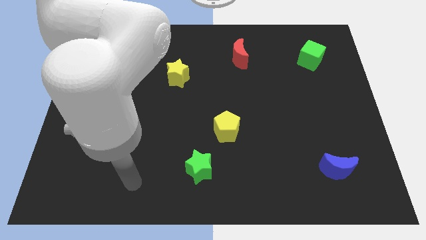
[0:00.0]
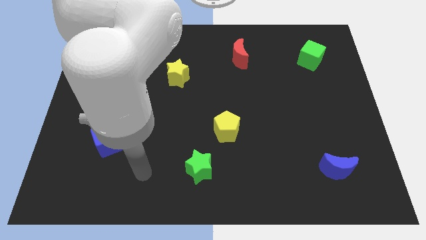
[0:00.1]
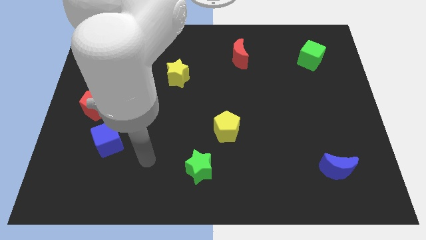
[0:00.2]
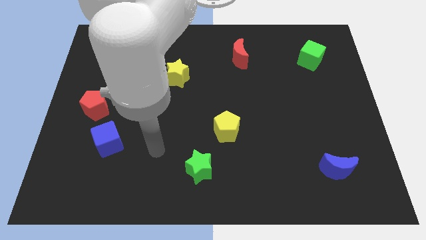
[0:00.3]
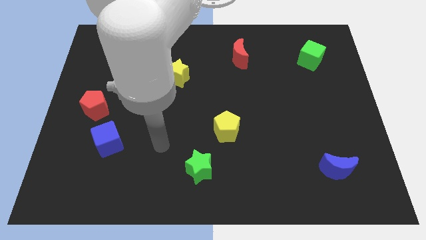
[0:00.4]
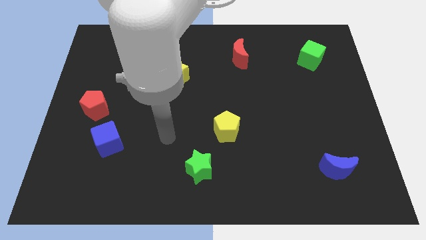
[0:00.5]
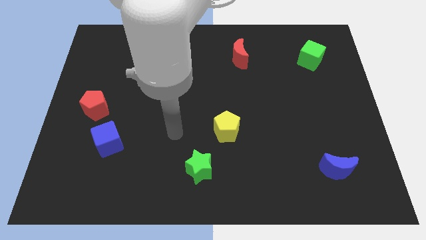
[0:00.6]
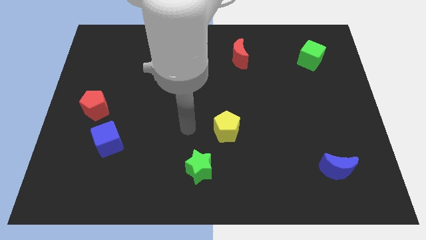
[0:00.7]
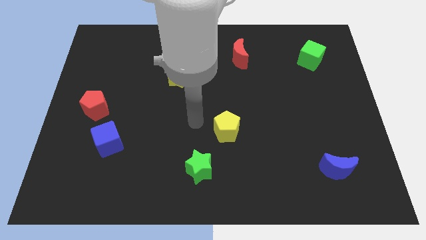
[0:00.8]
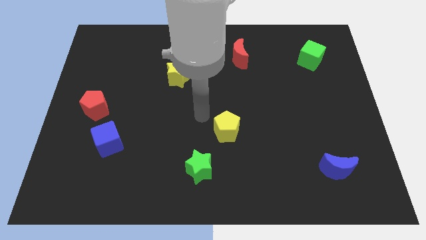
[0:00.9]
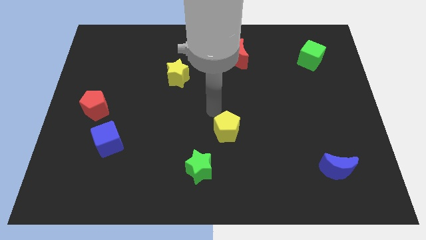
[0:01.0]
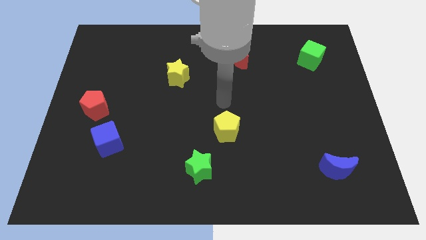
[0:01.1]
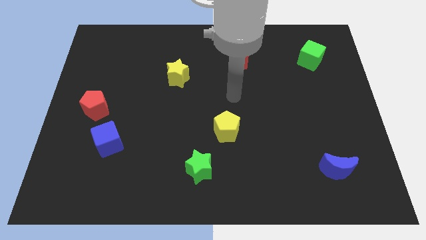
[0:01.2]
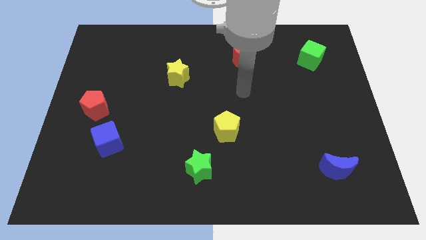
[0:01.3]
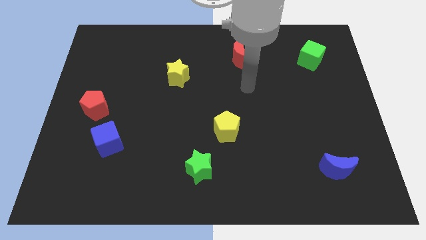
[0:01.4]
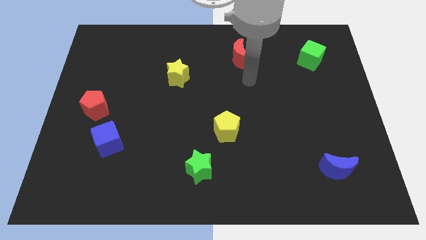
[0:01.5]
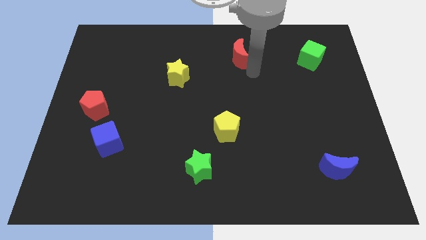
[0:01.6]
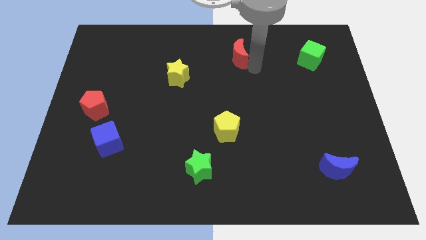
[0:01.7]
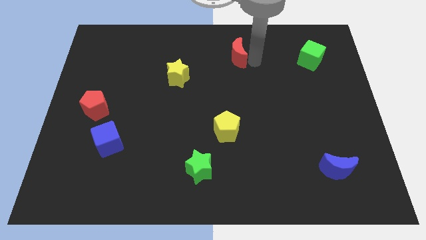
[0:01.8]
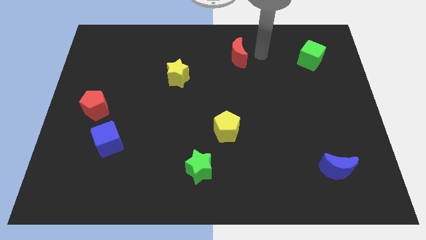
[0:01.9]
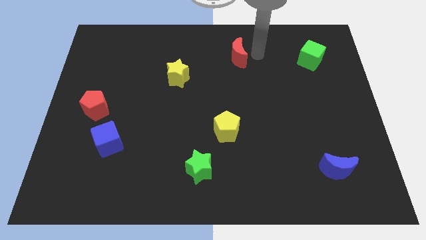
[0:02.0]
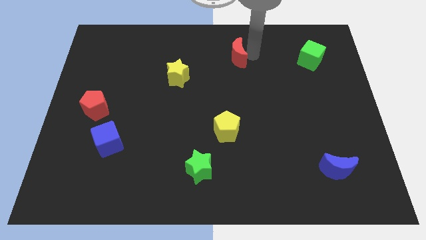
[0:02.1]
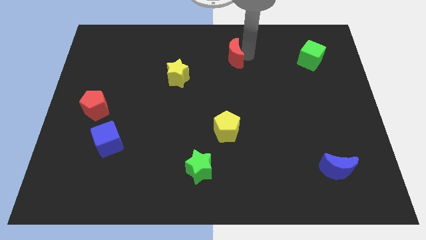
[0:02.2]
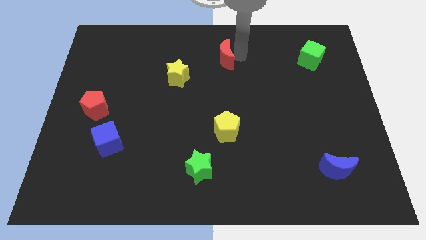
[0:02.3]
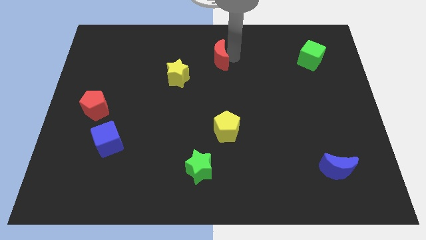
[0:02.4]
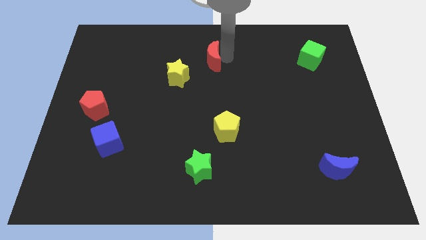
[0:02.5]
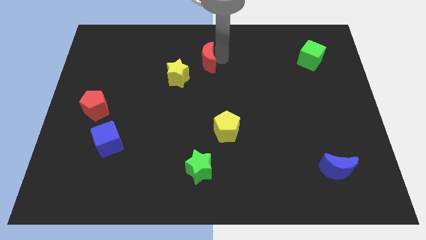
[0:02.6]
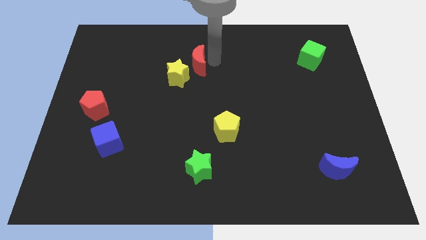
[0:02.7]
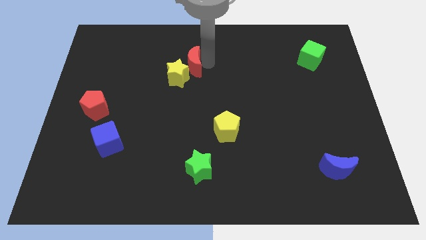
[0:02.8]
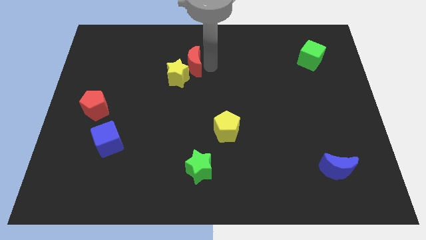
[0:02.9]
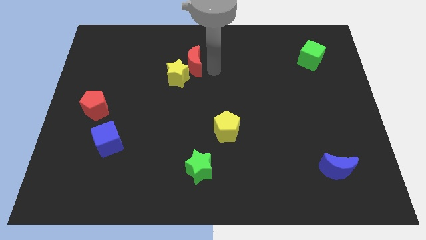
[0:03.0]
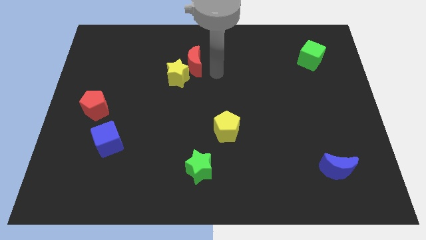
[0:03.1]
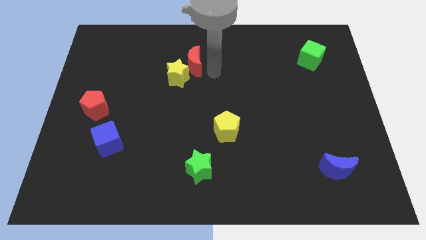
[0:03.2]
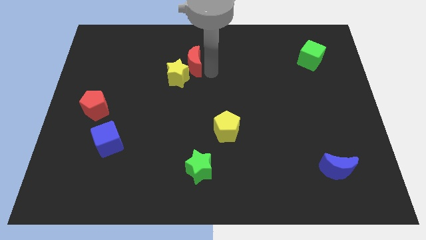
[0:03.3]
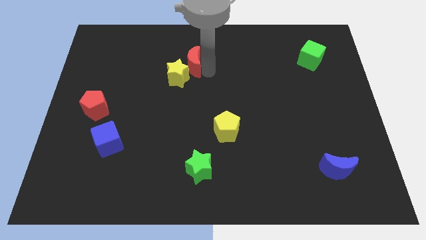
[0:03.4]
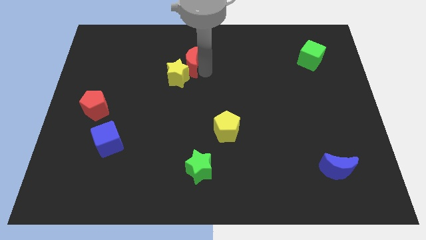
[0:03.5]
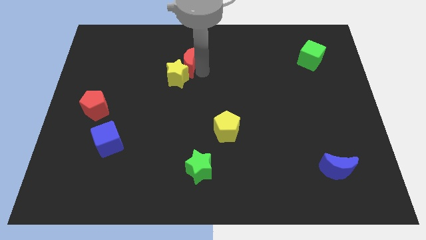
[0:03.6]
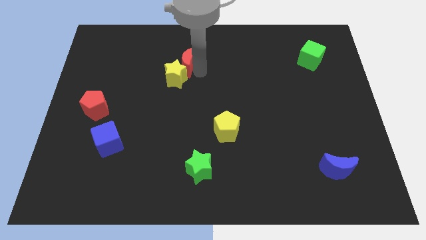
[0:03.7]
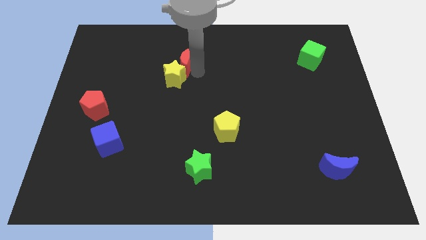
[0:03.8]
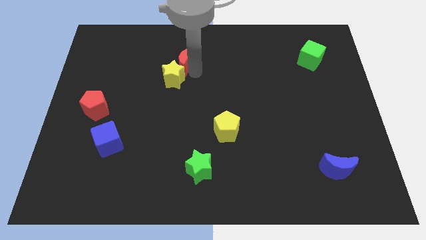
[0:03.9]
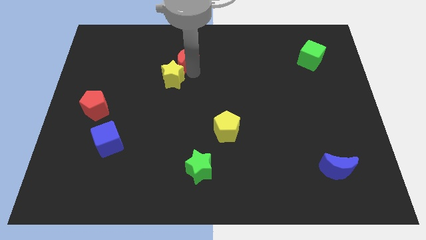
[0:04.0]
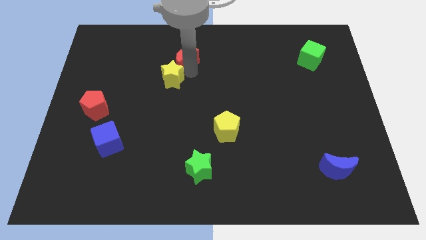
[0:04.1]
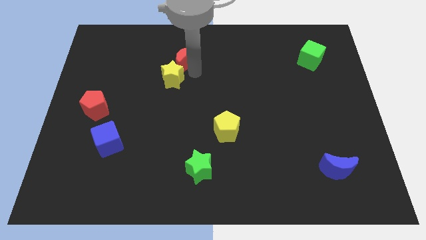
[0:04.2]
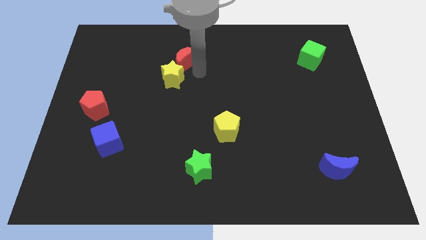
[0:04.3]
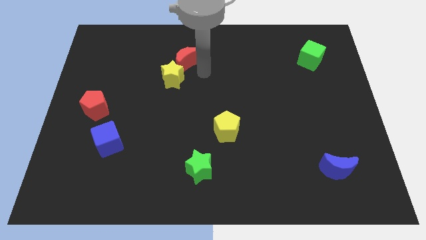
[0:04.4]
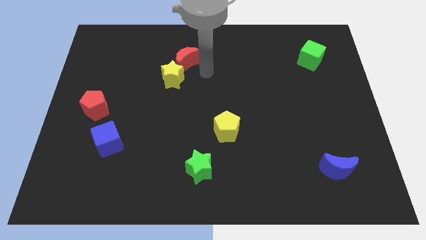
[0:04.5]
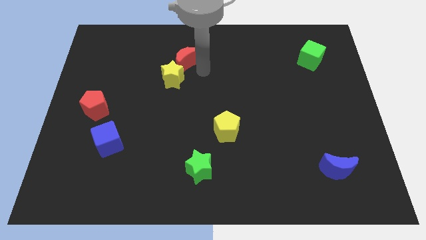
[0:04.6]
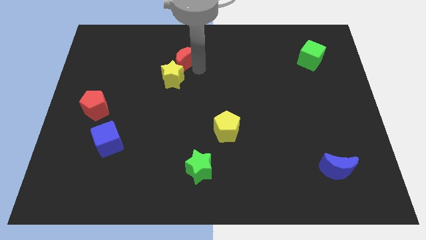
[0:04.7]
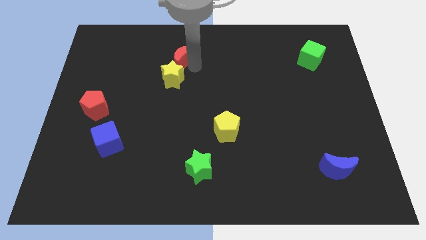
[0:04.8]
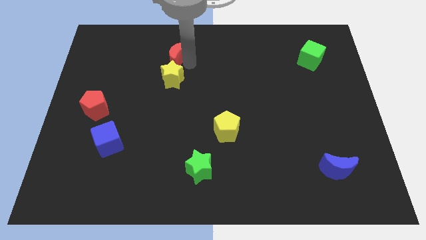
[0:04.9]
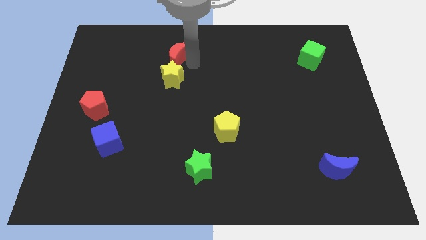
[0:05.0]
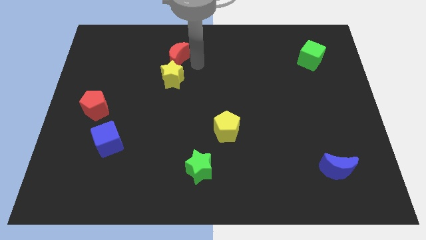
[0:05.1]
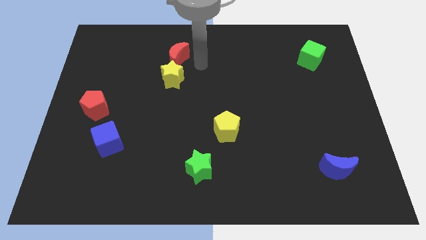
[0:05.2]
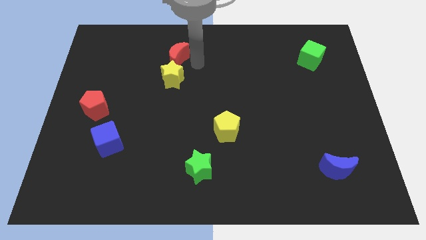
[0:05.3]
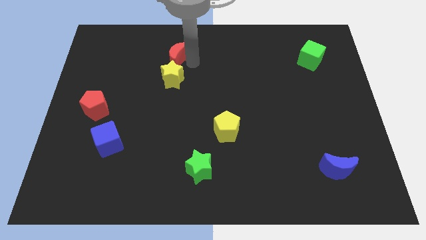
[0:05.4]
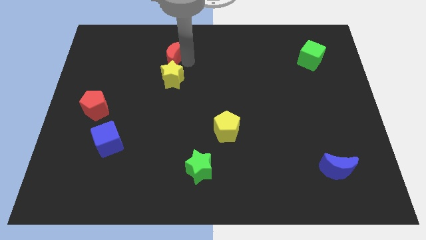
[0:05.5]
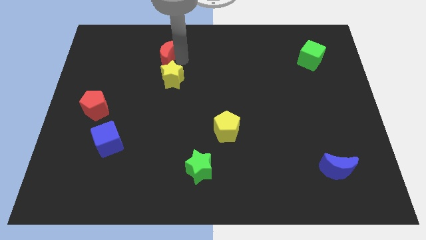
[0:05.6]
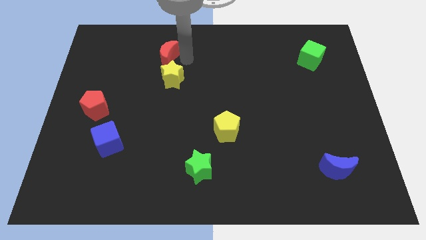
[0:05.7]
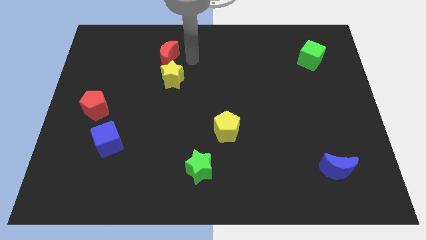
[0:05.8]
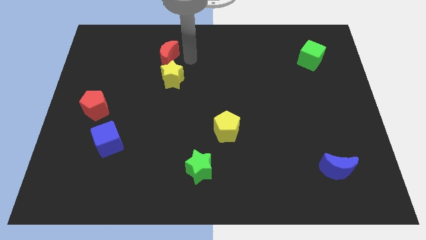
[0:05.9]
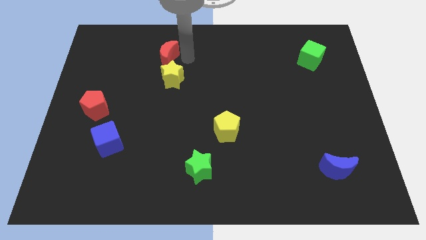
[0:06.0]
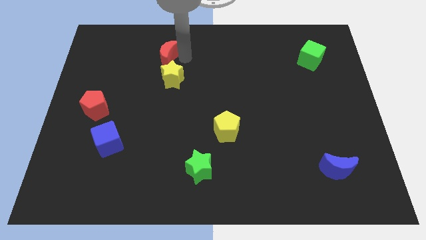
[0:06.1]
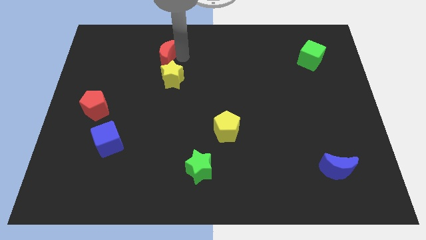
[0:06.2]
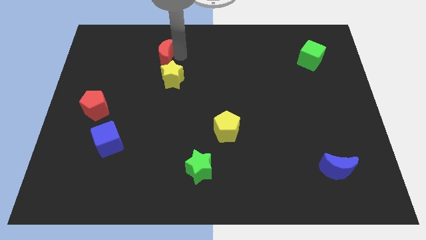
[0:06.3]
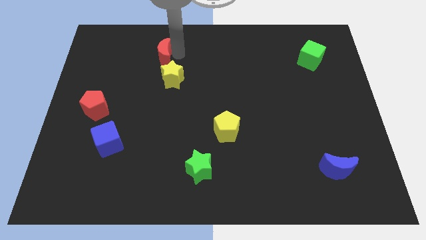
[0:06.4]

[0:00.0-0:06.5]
move the red moon to the left

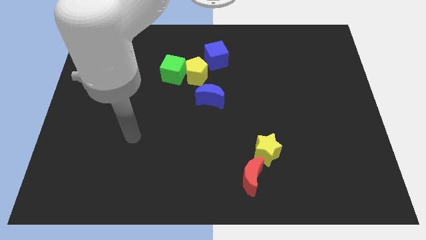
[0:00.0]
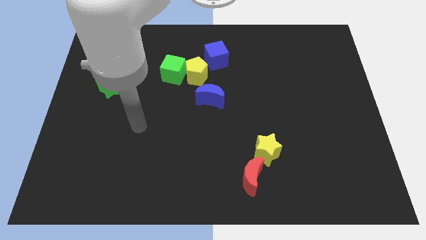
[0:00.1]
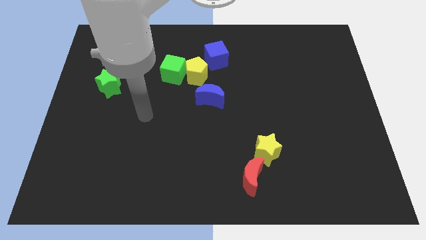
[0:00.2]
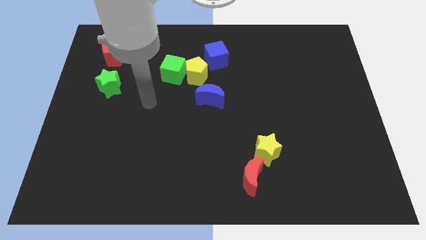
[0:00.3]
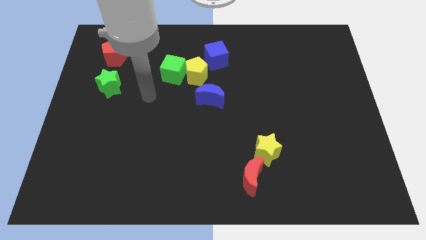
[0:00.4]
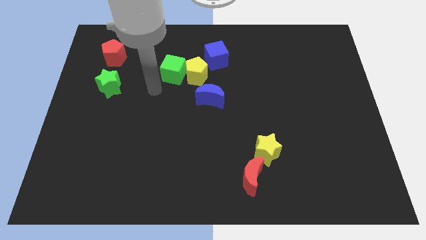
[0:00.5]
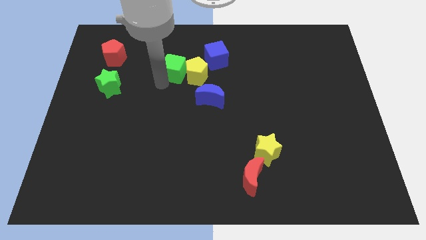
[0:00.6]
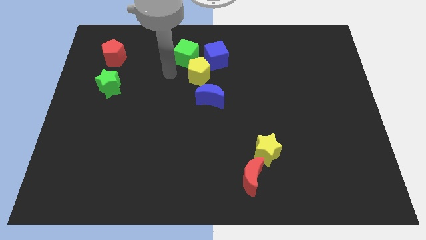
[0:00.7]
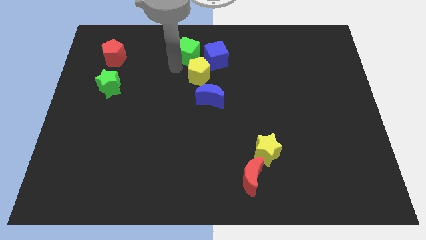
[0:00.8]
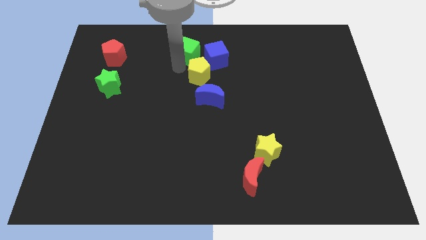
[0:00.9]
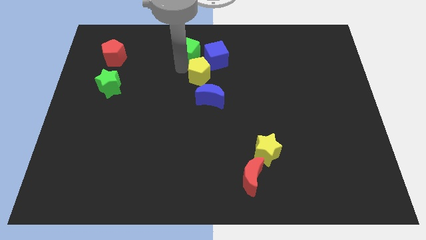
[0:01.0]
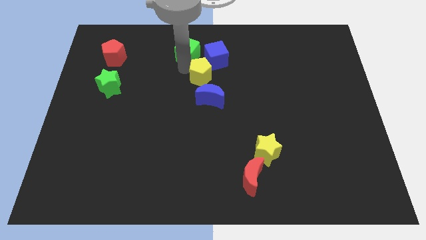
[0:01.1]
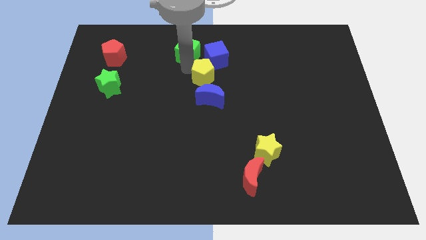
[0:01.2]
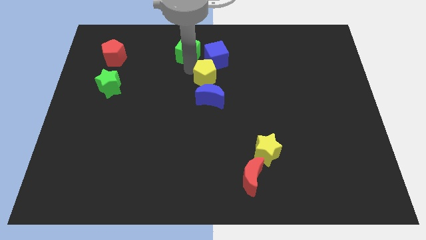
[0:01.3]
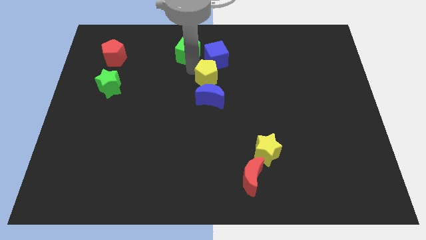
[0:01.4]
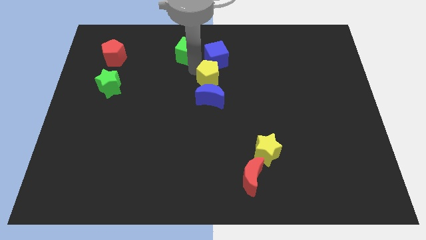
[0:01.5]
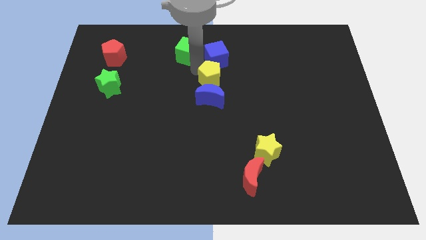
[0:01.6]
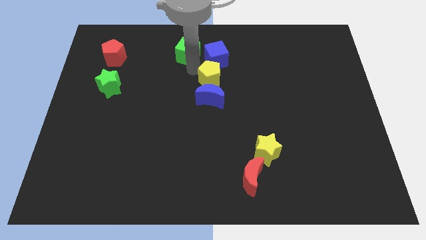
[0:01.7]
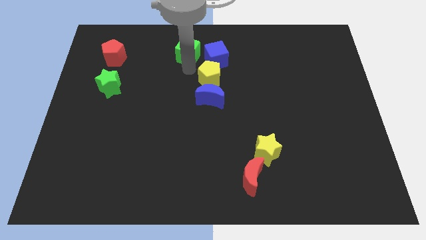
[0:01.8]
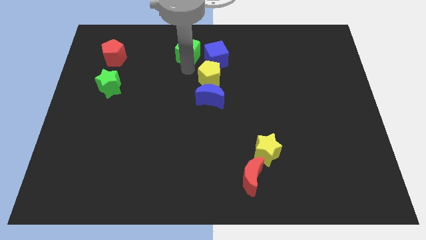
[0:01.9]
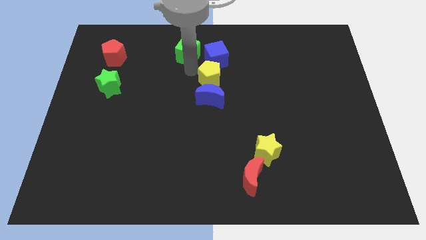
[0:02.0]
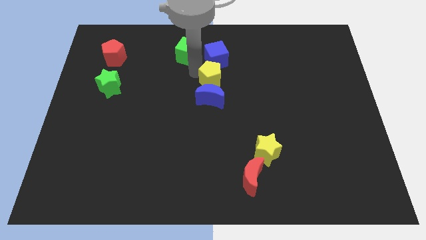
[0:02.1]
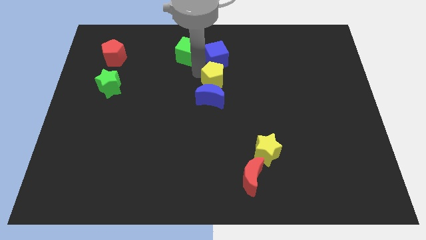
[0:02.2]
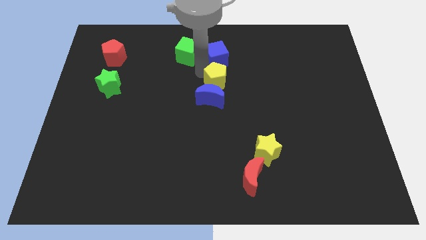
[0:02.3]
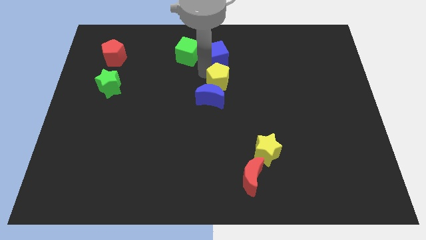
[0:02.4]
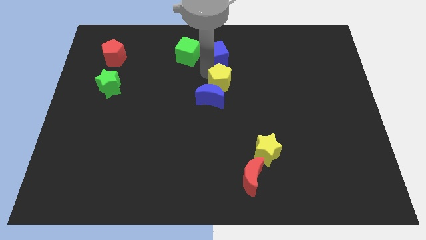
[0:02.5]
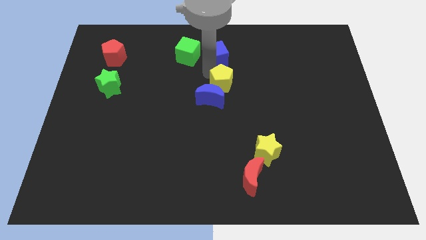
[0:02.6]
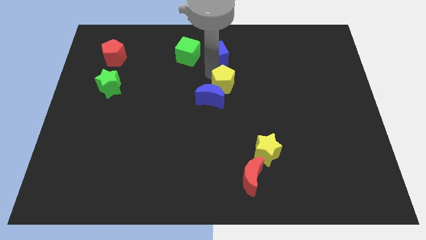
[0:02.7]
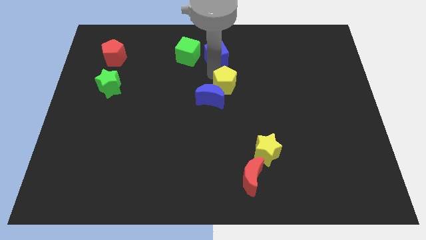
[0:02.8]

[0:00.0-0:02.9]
push the yellow pentagon down and right a bit
